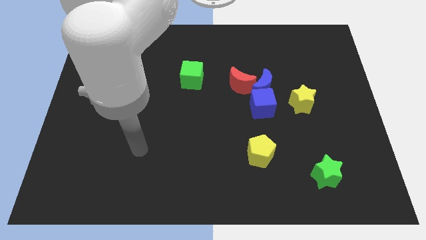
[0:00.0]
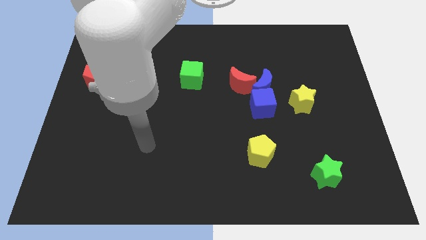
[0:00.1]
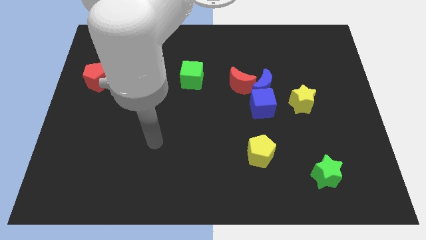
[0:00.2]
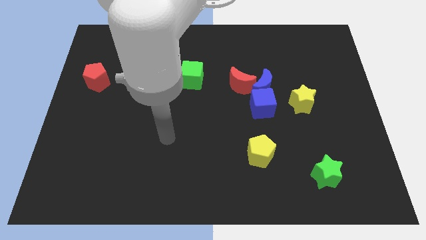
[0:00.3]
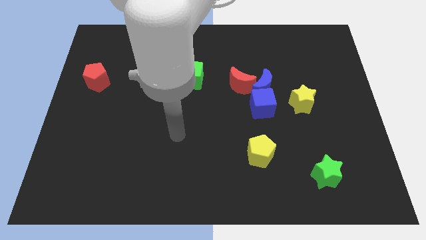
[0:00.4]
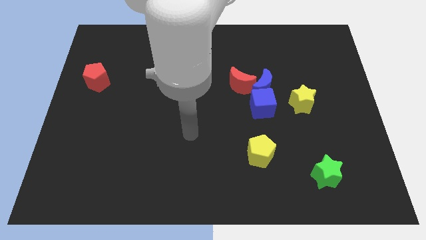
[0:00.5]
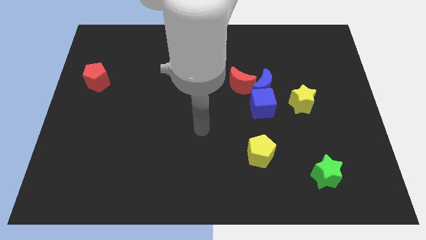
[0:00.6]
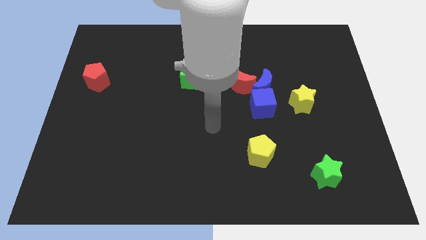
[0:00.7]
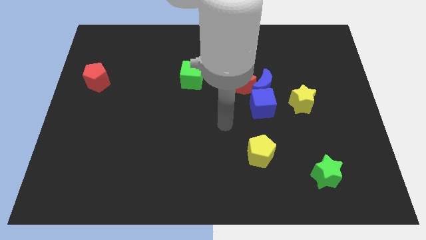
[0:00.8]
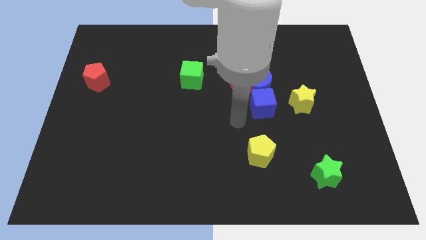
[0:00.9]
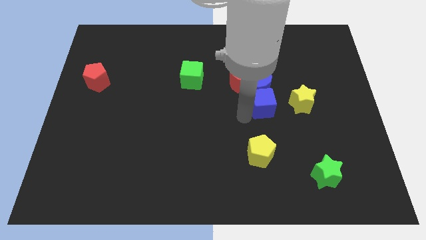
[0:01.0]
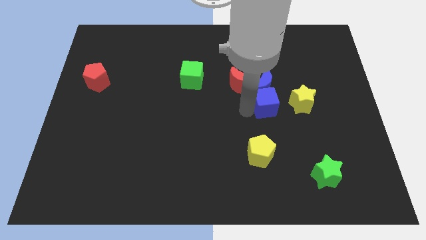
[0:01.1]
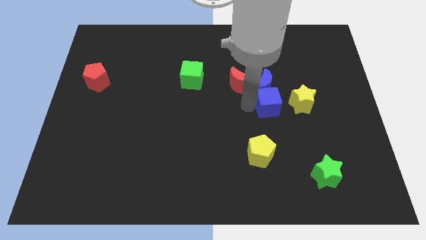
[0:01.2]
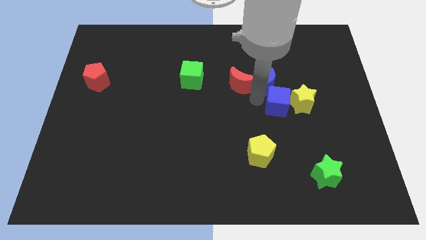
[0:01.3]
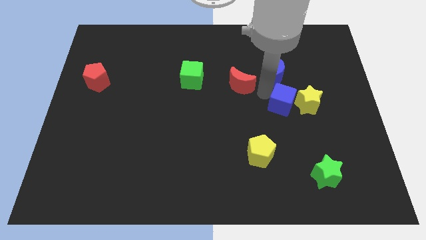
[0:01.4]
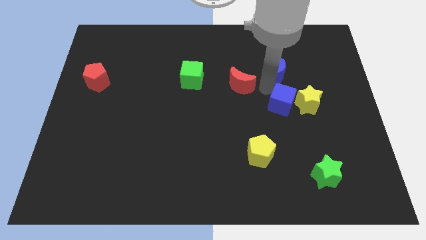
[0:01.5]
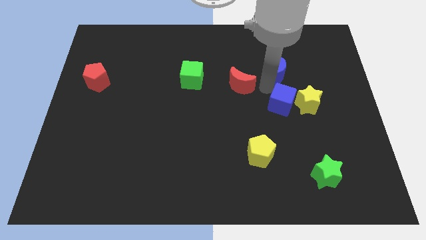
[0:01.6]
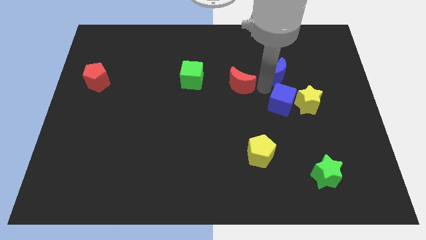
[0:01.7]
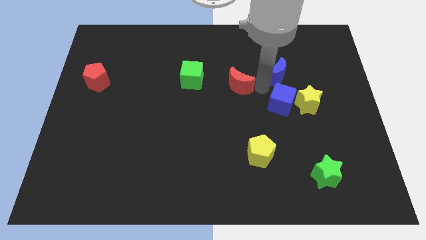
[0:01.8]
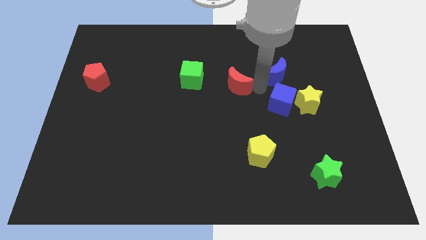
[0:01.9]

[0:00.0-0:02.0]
move the red moon away from the blue moon and blue cube

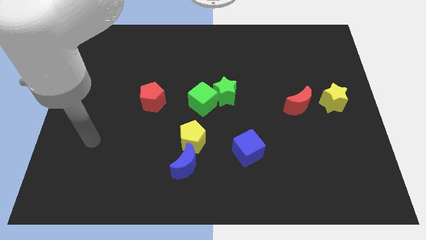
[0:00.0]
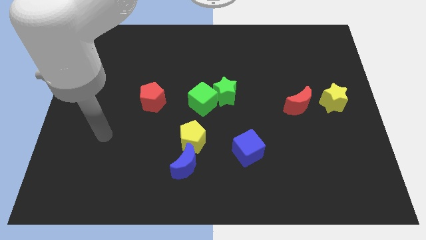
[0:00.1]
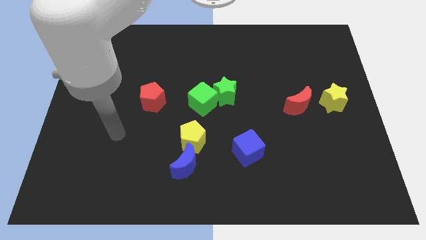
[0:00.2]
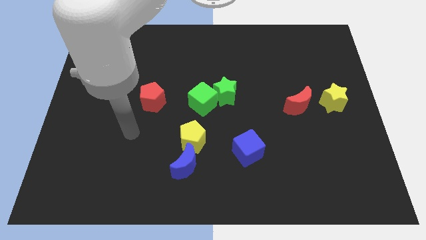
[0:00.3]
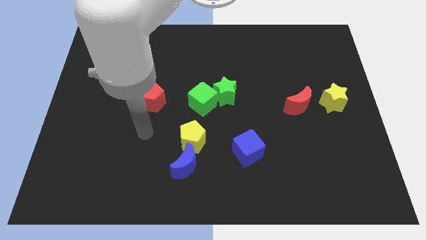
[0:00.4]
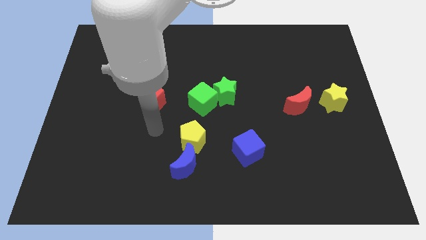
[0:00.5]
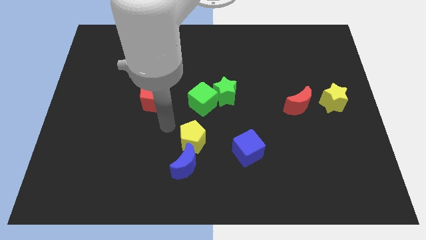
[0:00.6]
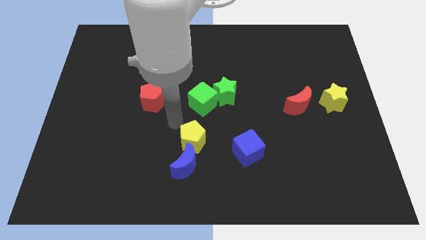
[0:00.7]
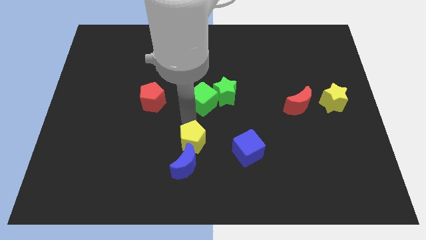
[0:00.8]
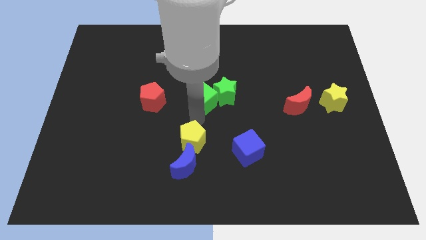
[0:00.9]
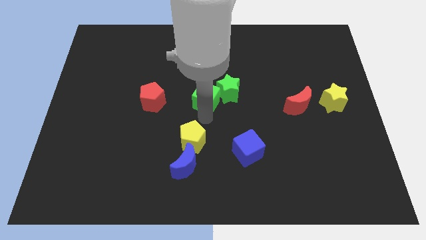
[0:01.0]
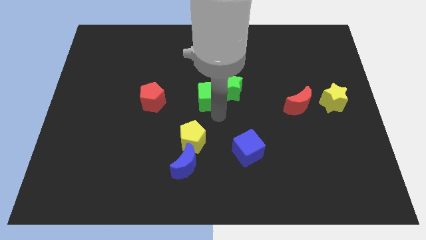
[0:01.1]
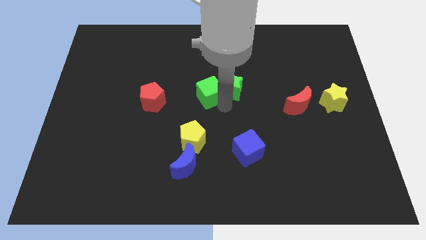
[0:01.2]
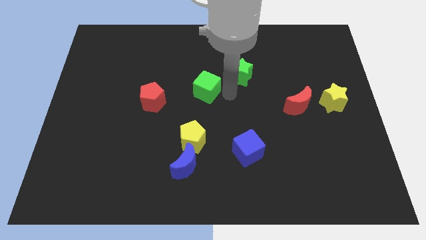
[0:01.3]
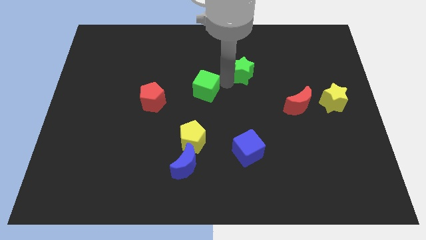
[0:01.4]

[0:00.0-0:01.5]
separate the green cube from the green star

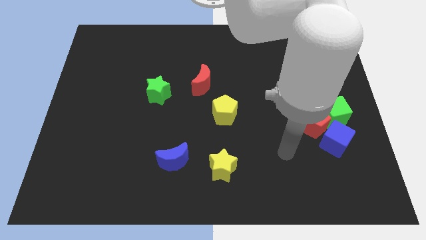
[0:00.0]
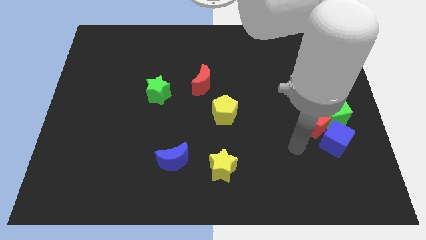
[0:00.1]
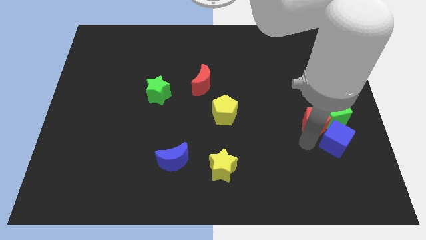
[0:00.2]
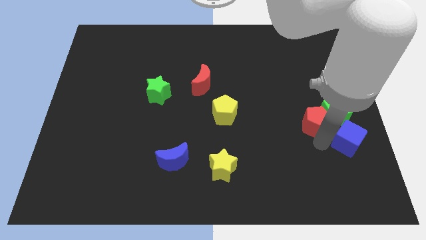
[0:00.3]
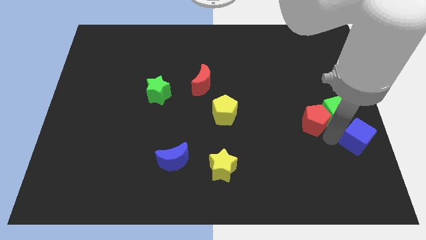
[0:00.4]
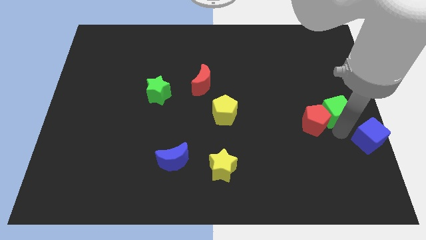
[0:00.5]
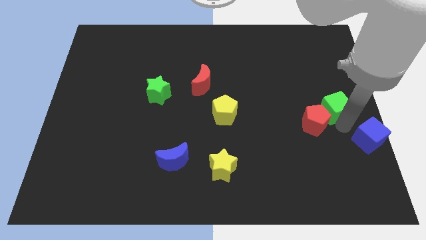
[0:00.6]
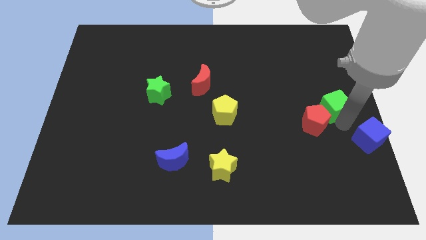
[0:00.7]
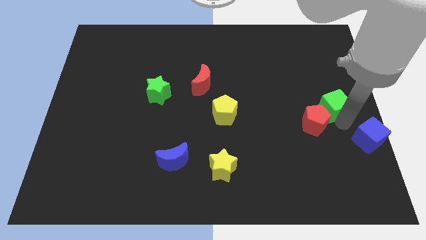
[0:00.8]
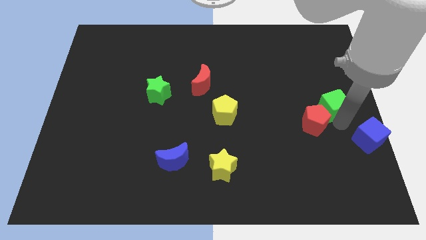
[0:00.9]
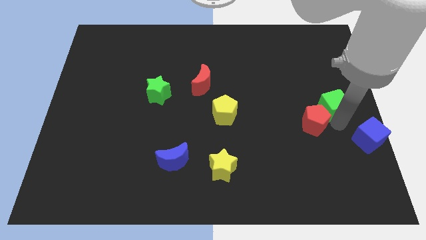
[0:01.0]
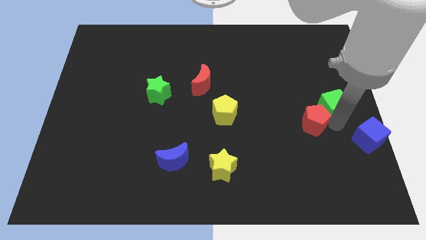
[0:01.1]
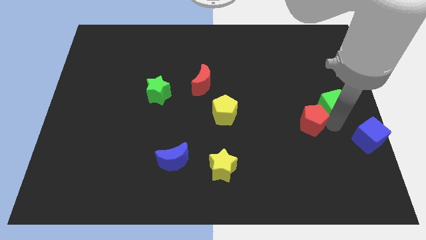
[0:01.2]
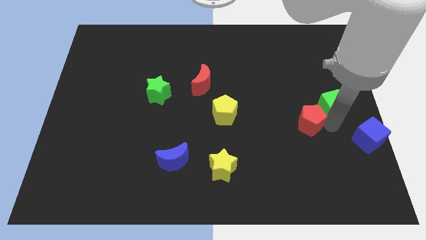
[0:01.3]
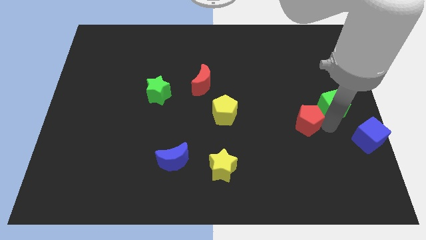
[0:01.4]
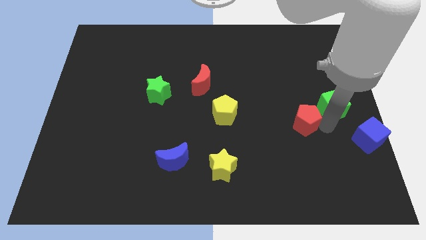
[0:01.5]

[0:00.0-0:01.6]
pull the red pentagon apart from the green cube and blue cube

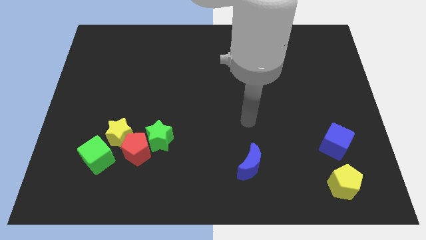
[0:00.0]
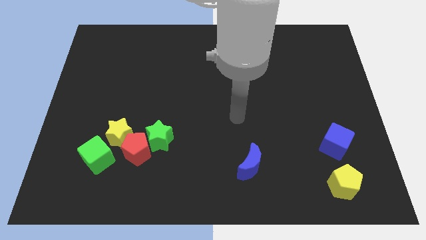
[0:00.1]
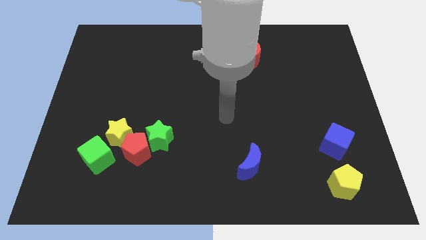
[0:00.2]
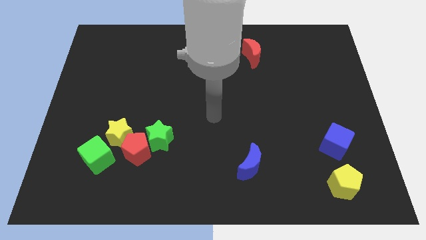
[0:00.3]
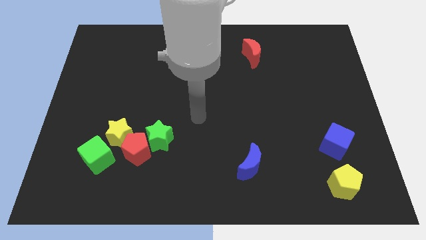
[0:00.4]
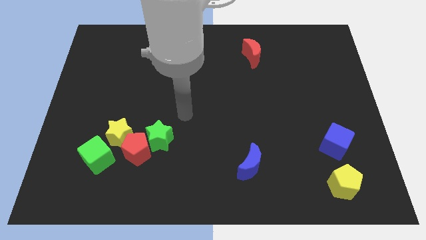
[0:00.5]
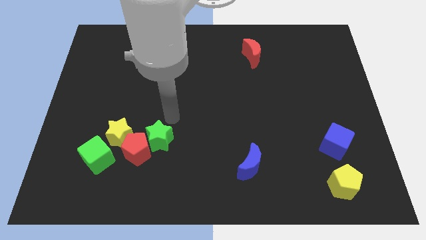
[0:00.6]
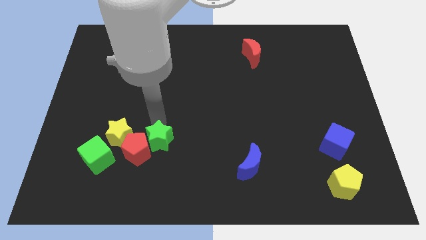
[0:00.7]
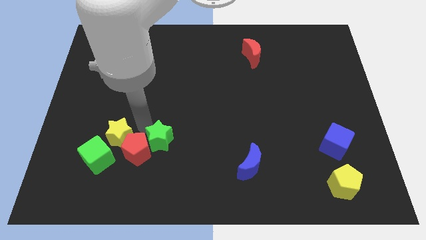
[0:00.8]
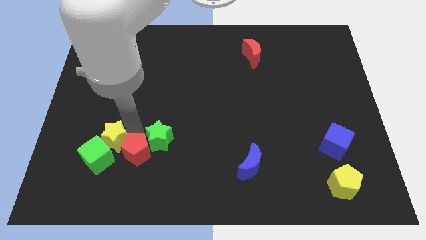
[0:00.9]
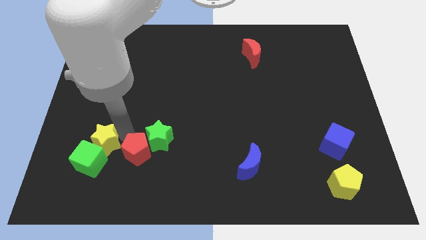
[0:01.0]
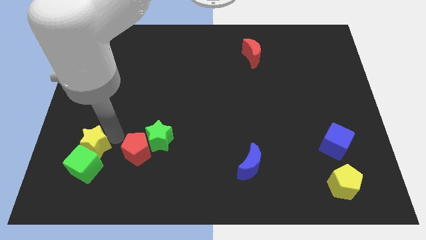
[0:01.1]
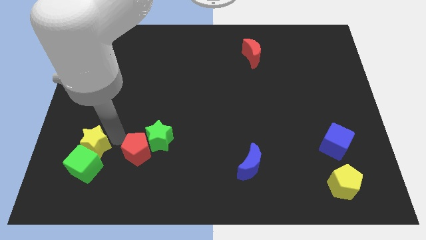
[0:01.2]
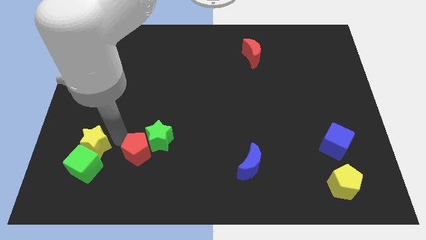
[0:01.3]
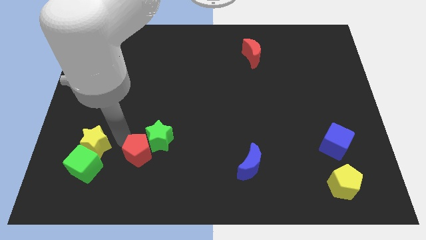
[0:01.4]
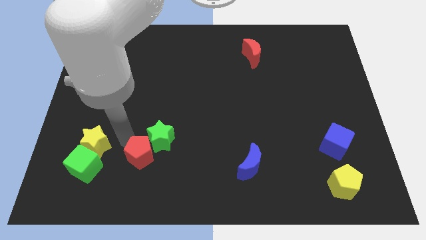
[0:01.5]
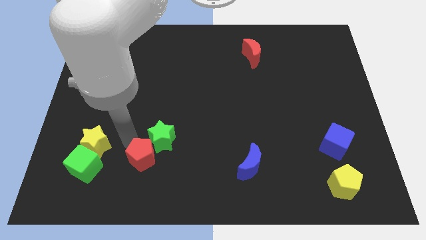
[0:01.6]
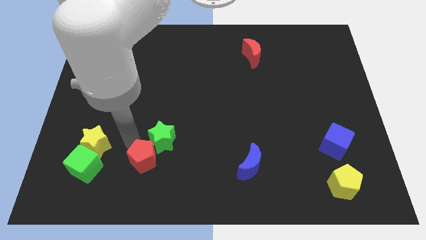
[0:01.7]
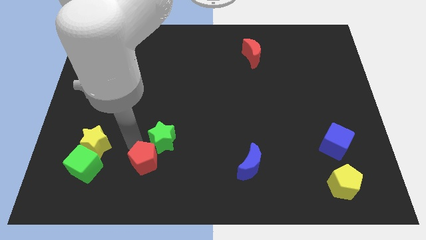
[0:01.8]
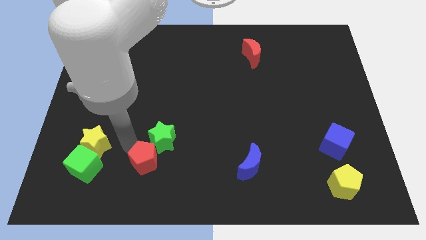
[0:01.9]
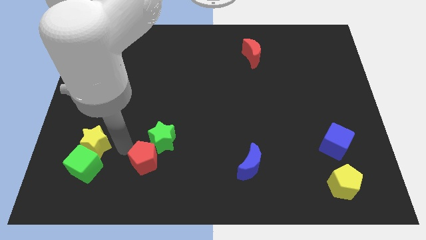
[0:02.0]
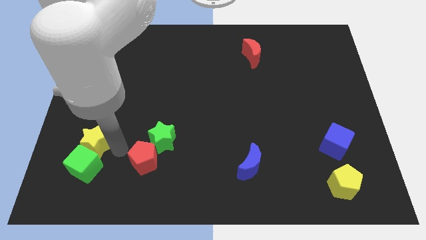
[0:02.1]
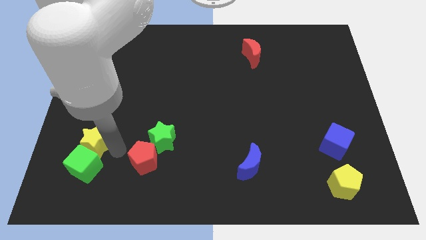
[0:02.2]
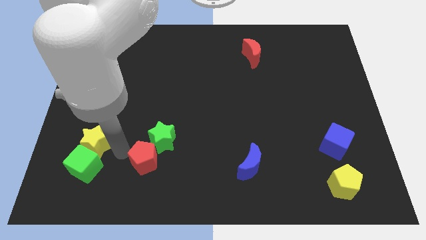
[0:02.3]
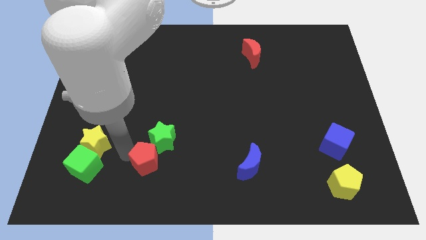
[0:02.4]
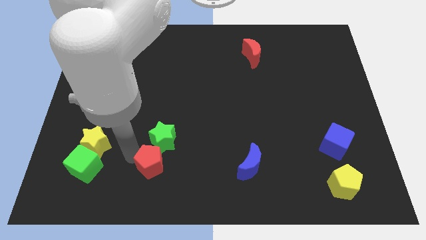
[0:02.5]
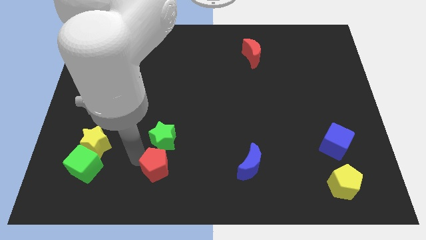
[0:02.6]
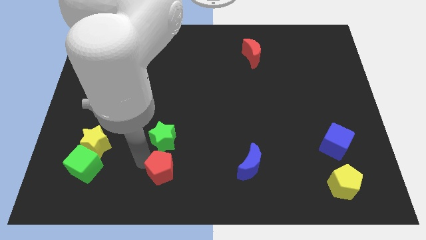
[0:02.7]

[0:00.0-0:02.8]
move the red pentagon away from the group

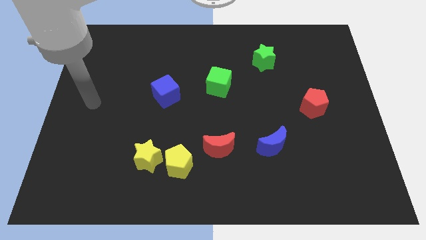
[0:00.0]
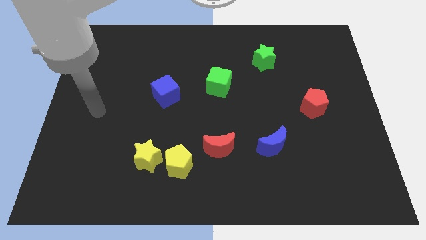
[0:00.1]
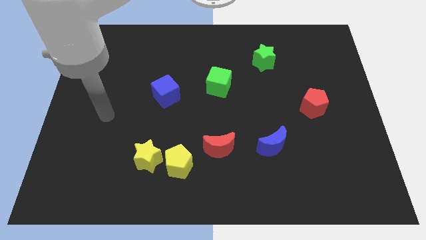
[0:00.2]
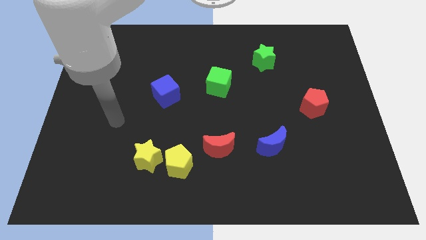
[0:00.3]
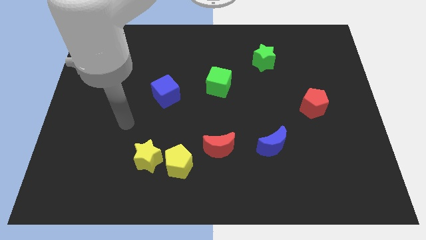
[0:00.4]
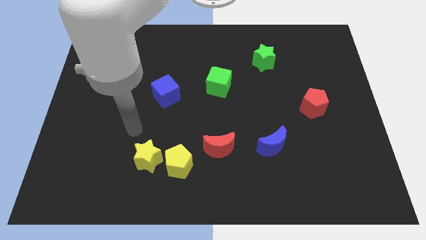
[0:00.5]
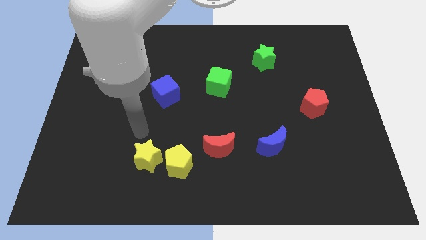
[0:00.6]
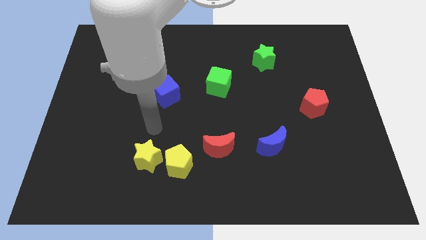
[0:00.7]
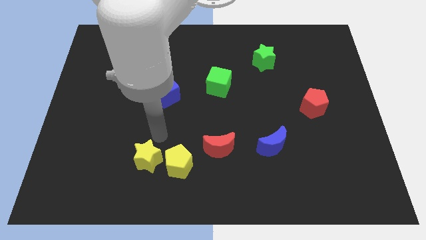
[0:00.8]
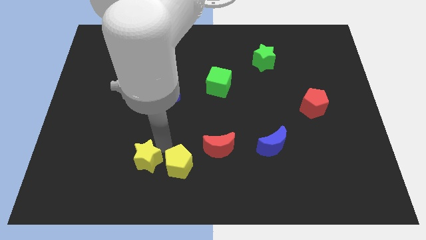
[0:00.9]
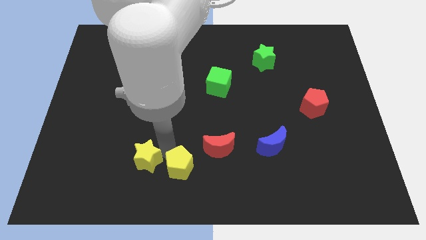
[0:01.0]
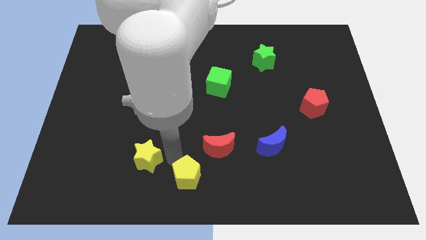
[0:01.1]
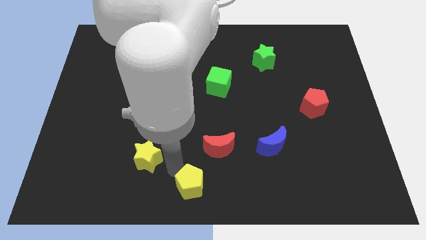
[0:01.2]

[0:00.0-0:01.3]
pull the yellow star apart from the yellow pentagon

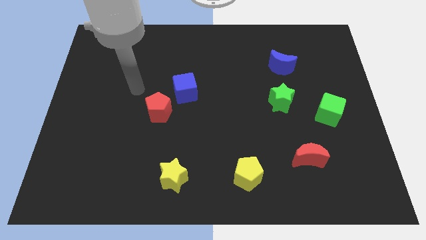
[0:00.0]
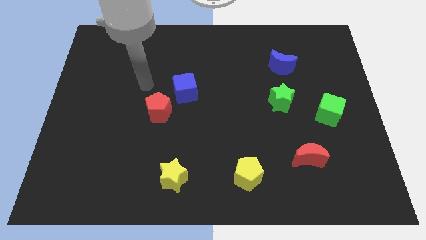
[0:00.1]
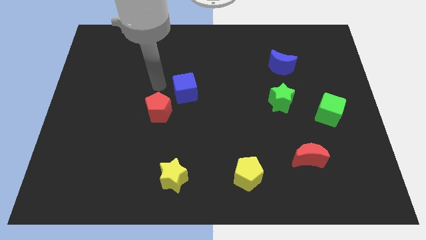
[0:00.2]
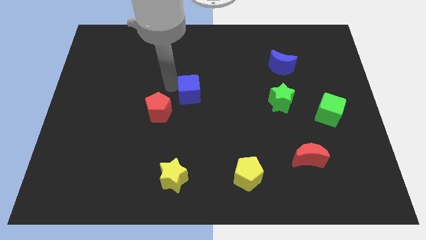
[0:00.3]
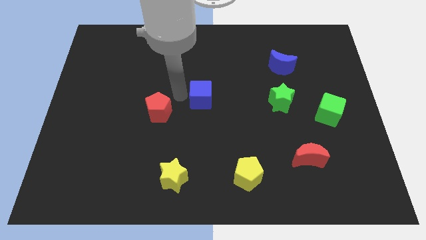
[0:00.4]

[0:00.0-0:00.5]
pull the red pentagon apart from the blue cube
